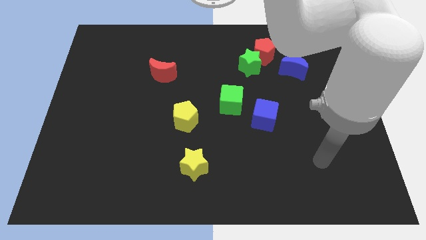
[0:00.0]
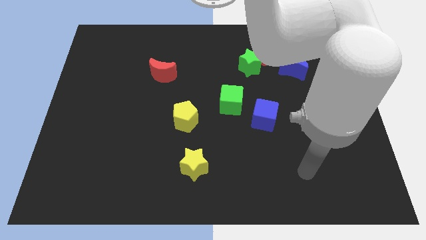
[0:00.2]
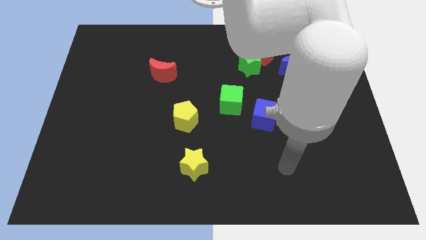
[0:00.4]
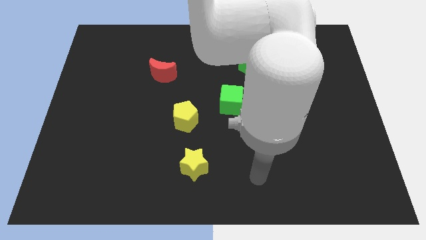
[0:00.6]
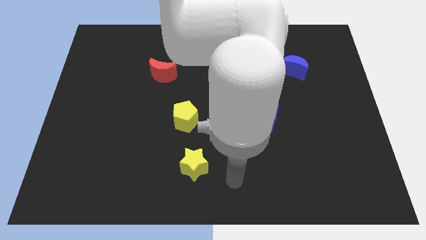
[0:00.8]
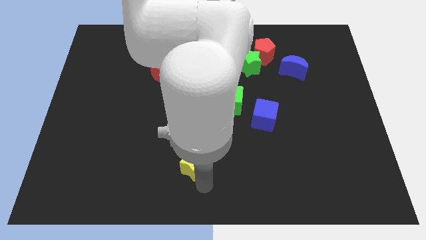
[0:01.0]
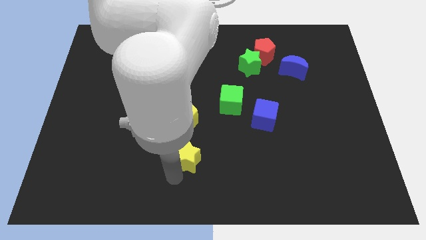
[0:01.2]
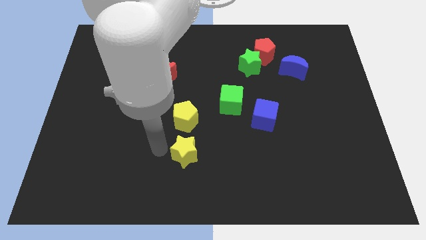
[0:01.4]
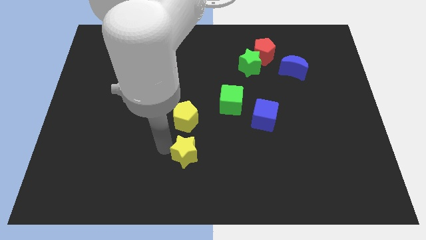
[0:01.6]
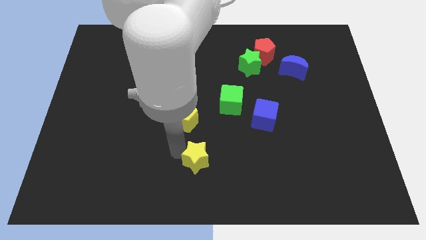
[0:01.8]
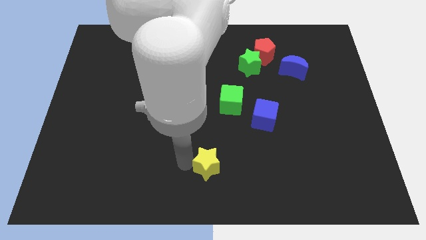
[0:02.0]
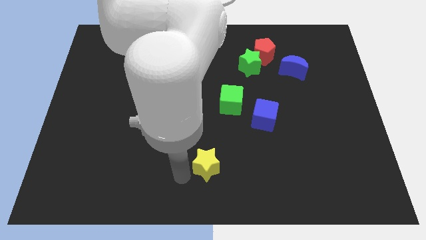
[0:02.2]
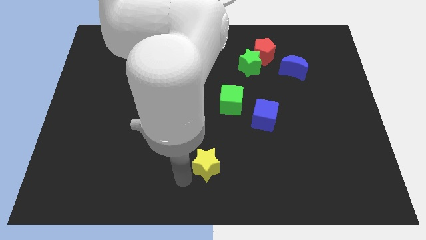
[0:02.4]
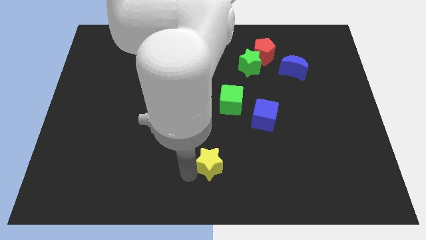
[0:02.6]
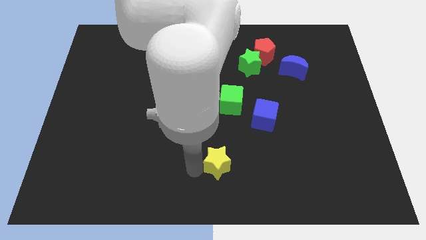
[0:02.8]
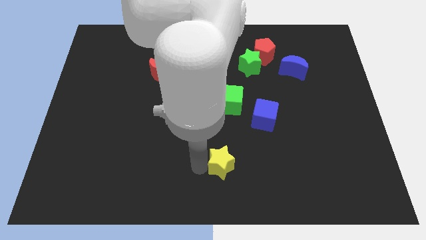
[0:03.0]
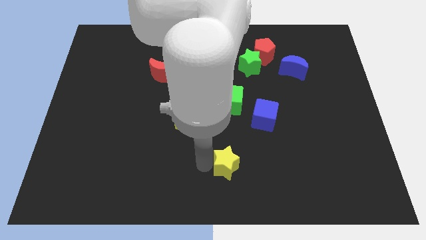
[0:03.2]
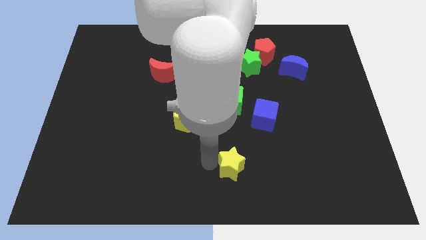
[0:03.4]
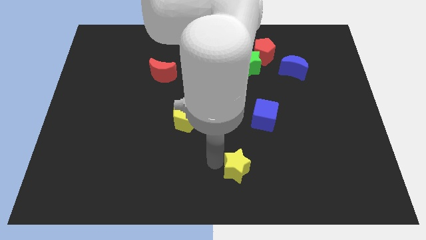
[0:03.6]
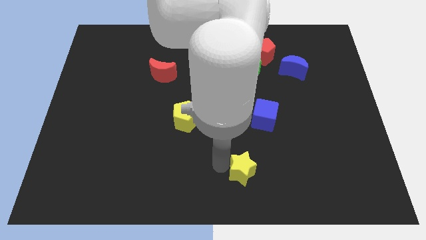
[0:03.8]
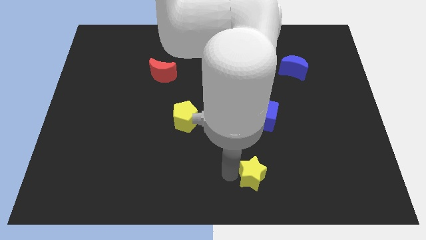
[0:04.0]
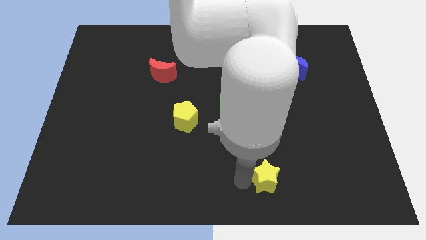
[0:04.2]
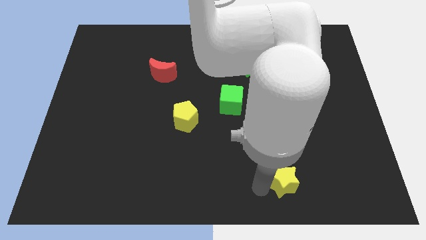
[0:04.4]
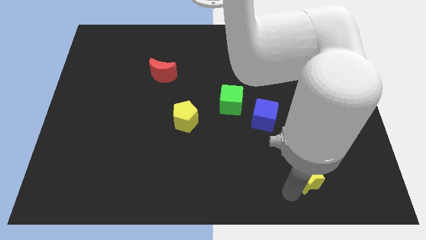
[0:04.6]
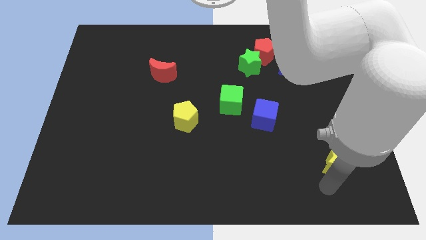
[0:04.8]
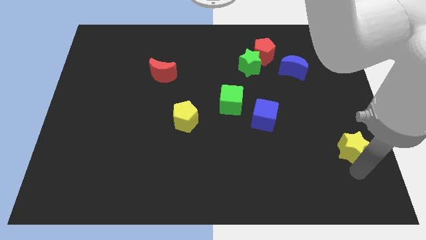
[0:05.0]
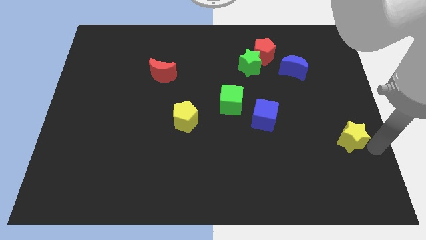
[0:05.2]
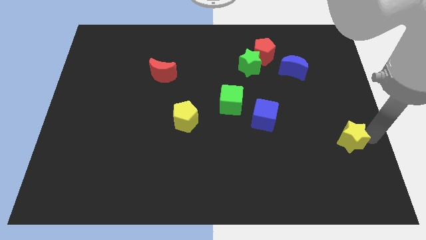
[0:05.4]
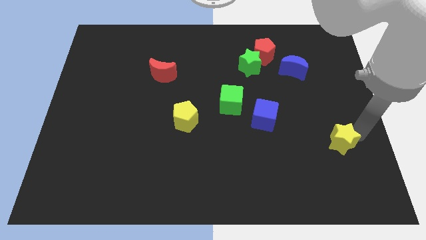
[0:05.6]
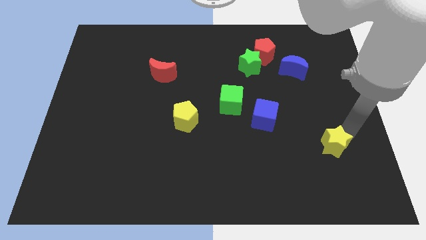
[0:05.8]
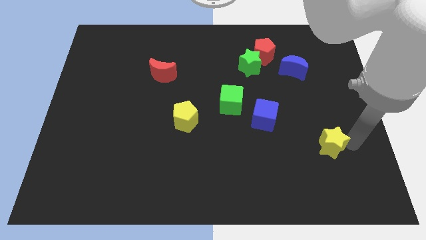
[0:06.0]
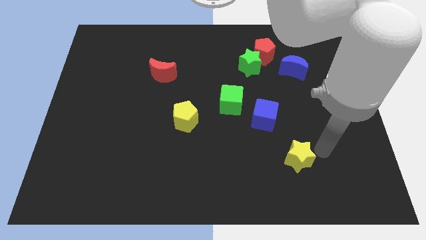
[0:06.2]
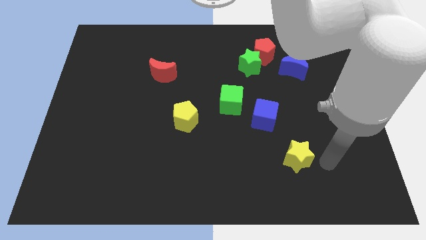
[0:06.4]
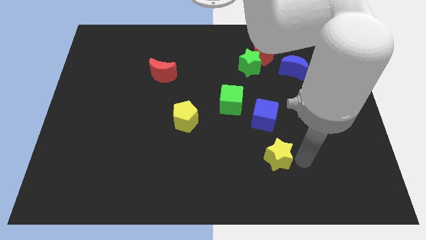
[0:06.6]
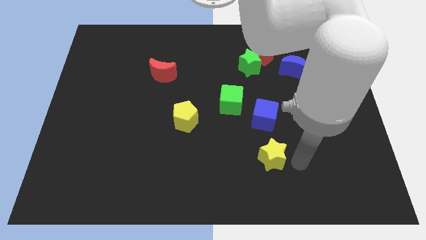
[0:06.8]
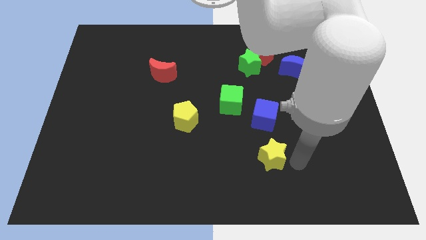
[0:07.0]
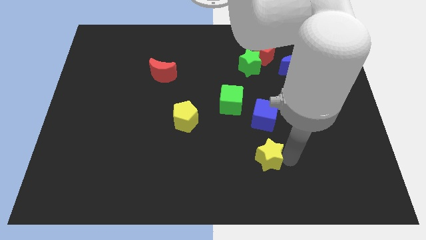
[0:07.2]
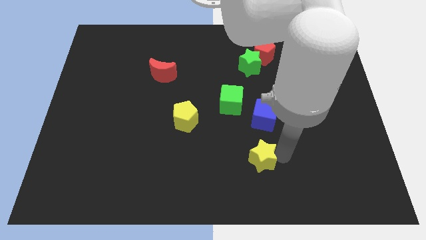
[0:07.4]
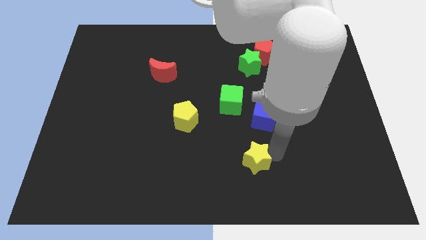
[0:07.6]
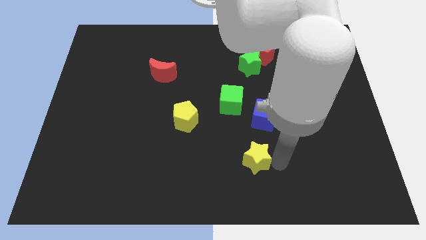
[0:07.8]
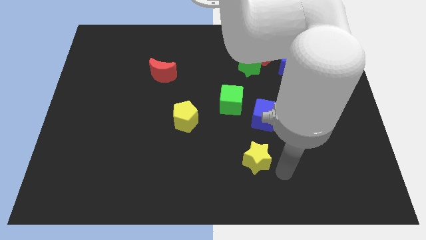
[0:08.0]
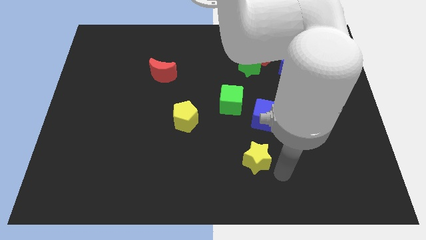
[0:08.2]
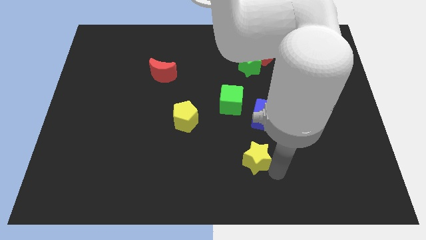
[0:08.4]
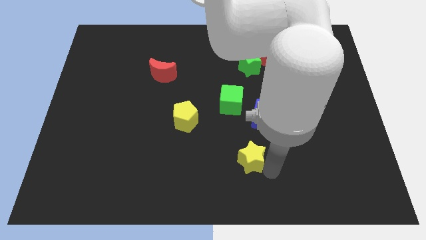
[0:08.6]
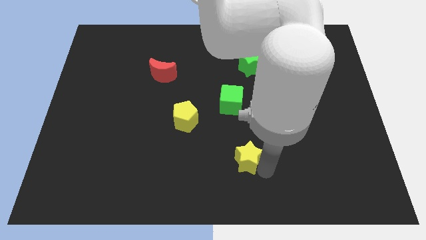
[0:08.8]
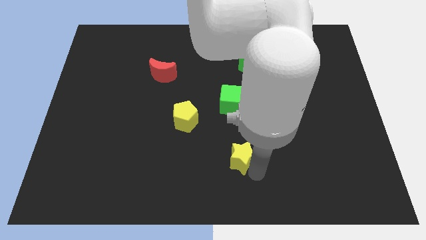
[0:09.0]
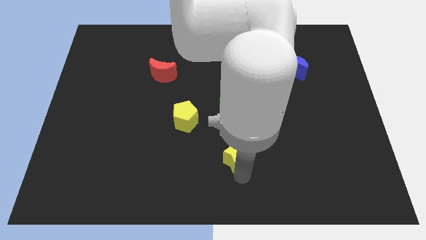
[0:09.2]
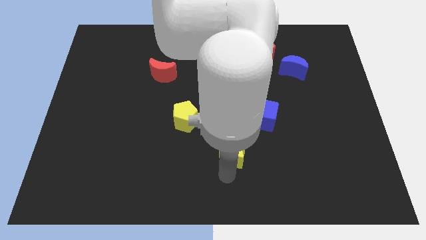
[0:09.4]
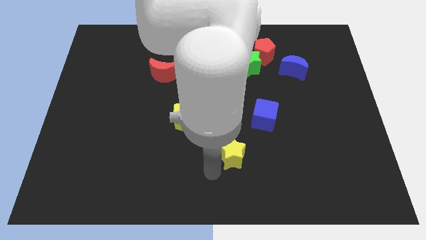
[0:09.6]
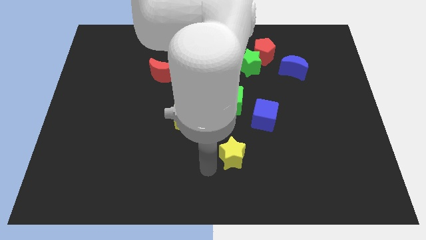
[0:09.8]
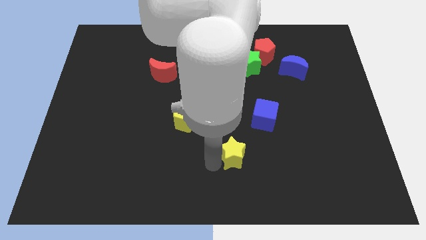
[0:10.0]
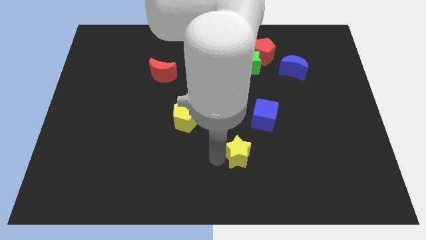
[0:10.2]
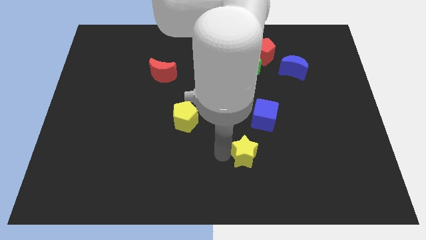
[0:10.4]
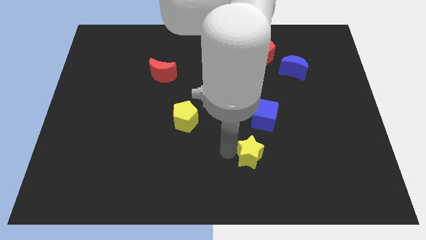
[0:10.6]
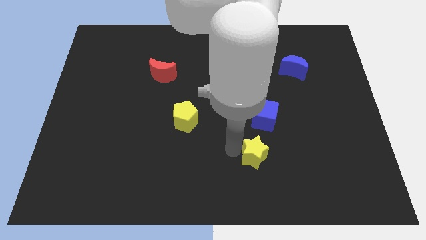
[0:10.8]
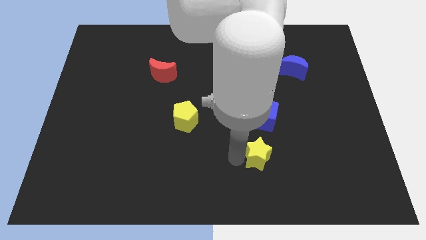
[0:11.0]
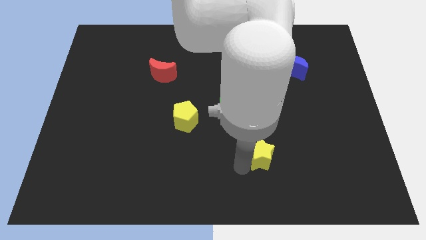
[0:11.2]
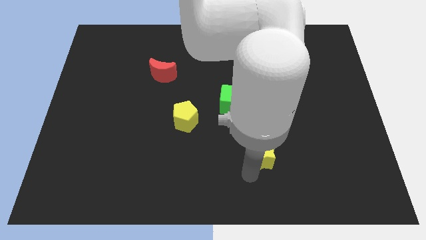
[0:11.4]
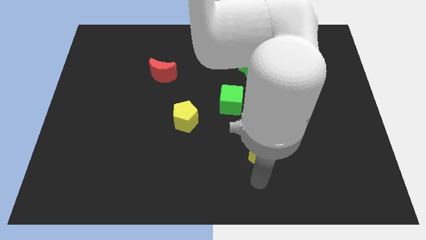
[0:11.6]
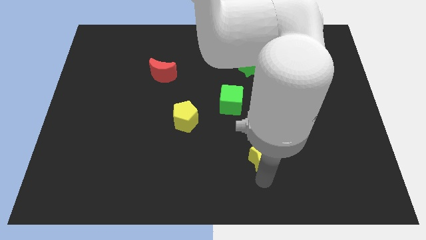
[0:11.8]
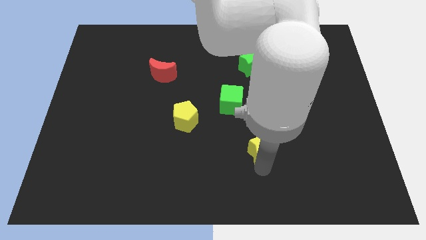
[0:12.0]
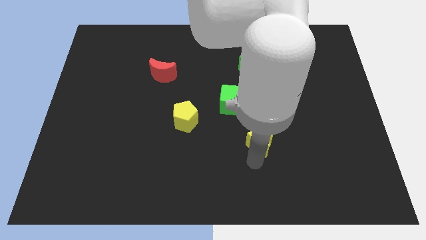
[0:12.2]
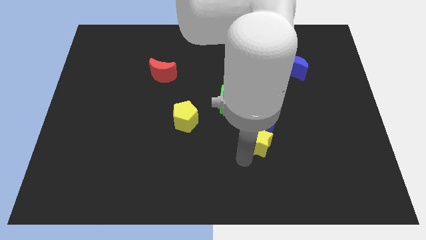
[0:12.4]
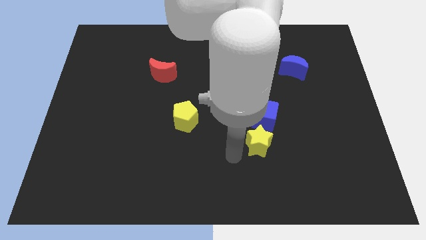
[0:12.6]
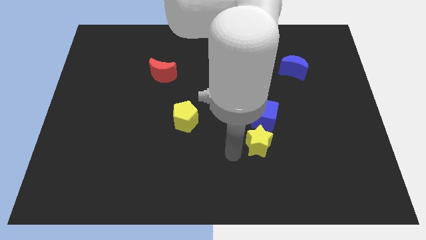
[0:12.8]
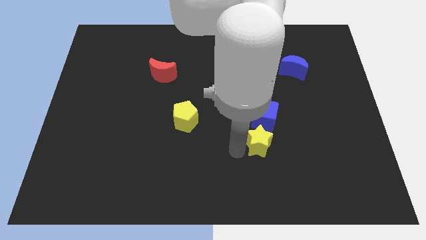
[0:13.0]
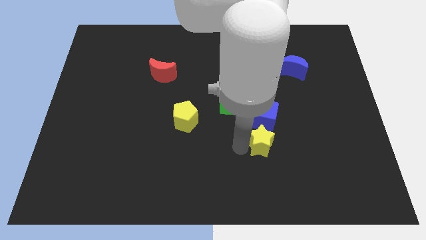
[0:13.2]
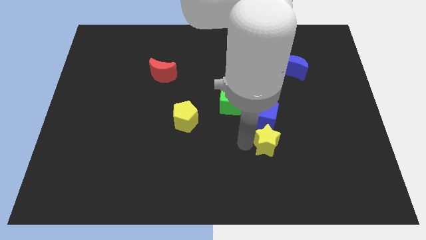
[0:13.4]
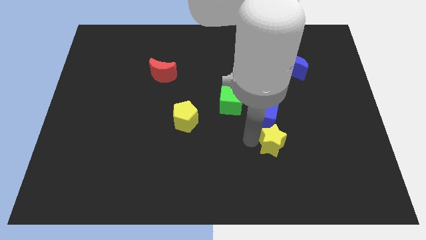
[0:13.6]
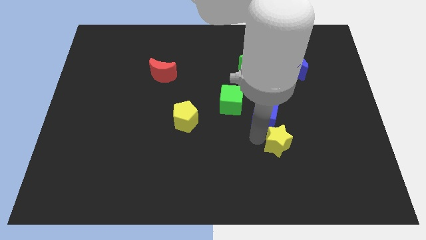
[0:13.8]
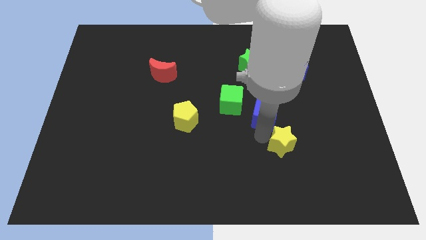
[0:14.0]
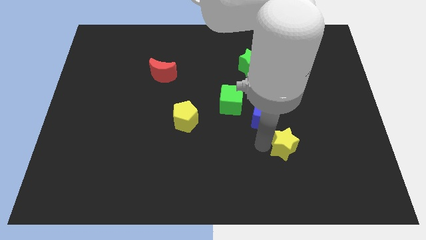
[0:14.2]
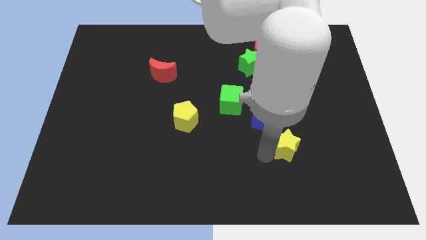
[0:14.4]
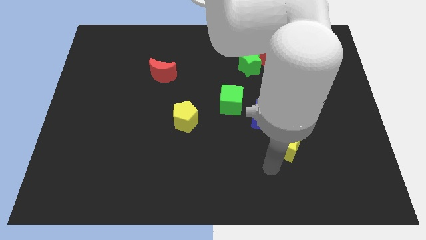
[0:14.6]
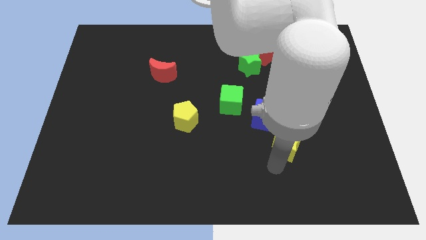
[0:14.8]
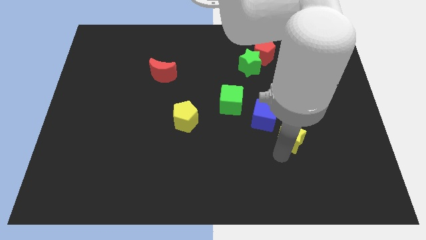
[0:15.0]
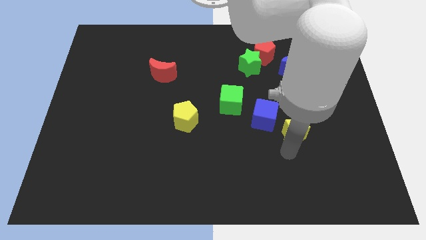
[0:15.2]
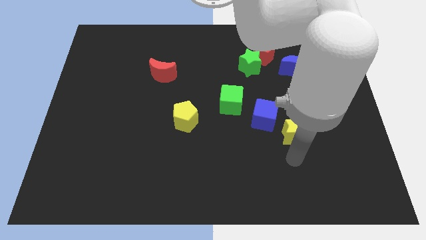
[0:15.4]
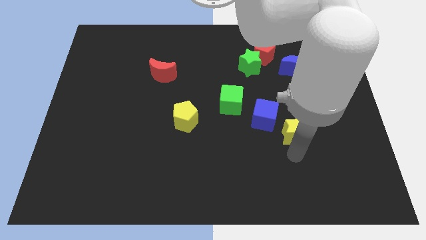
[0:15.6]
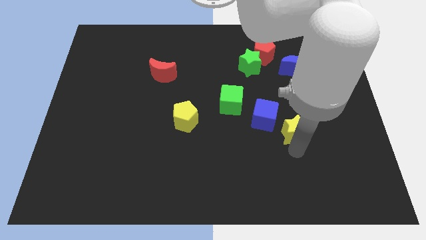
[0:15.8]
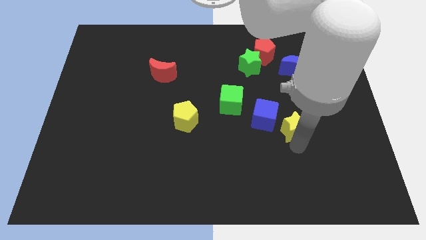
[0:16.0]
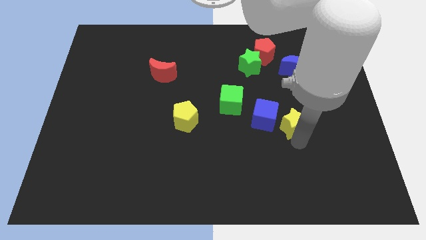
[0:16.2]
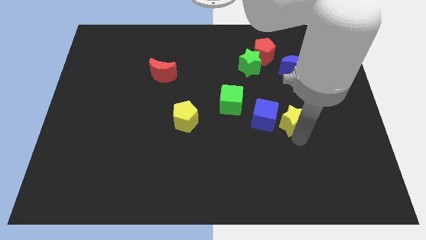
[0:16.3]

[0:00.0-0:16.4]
slide the yellow star up and to the right
